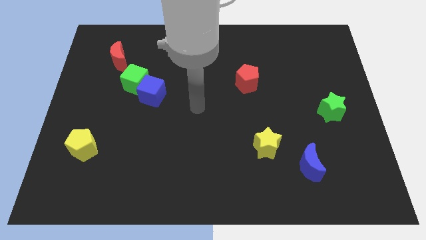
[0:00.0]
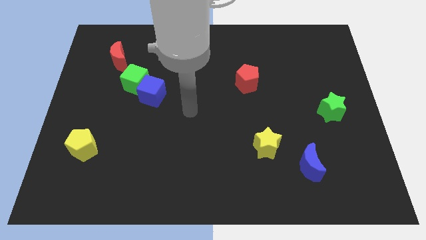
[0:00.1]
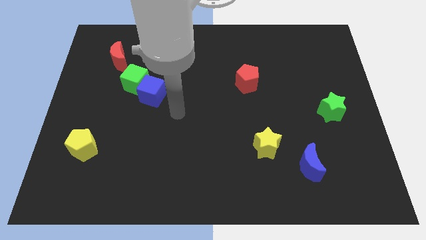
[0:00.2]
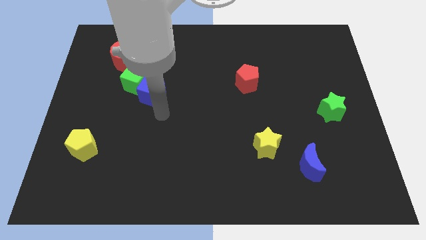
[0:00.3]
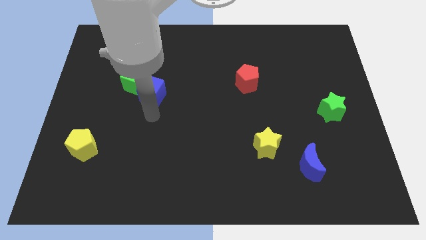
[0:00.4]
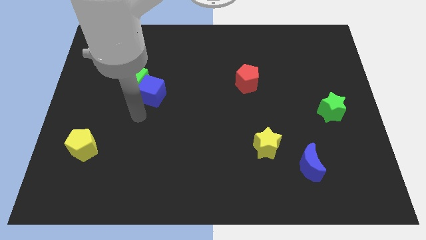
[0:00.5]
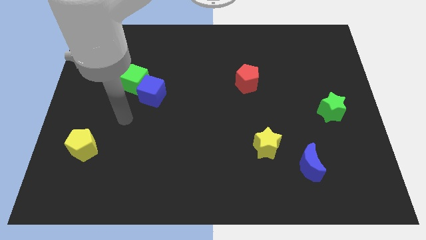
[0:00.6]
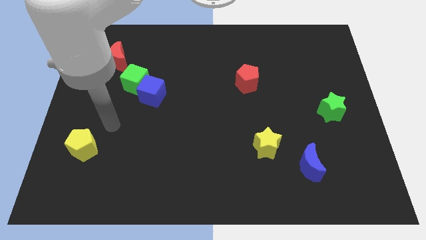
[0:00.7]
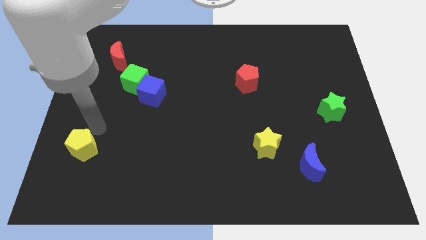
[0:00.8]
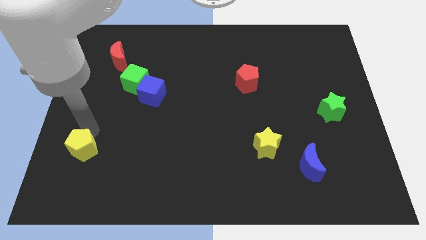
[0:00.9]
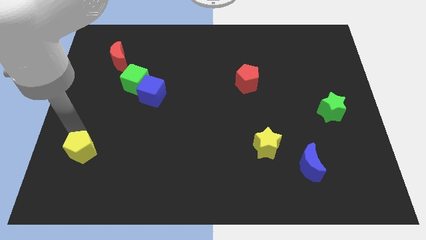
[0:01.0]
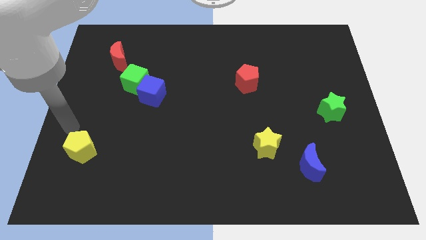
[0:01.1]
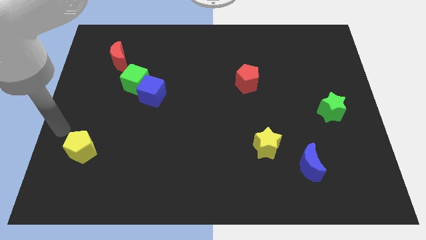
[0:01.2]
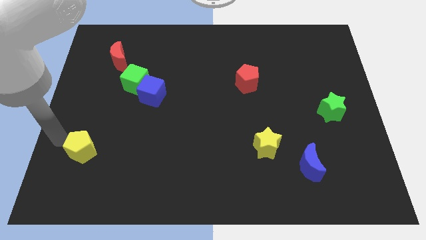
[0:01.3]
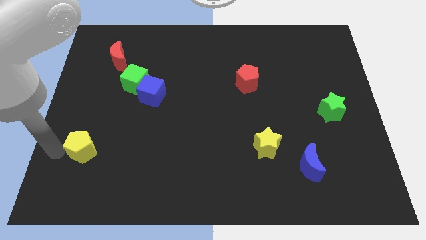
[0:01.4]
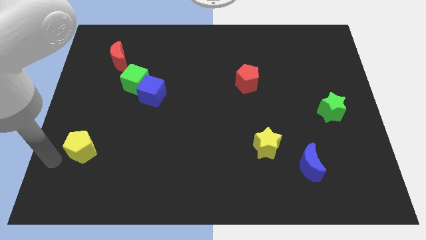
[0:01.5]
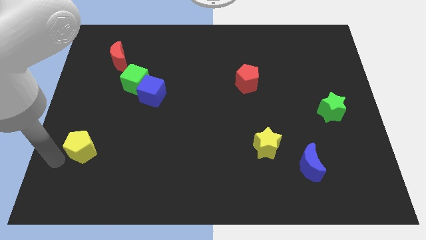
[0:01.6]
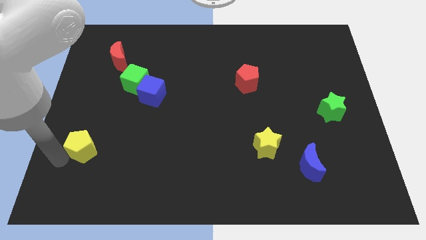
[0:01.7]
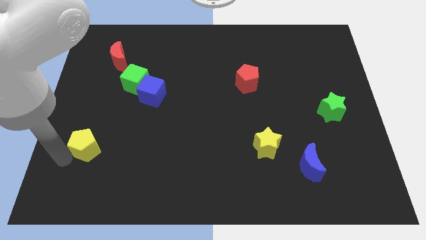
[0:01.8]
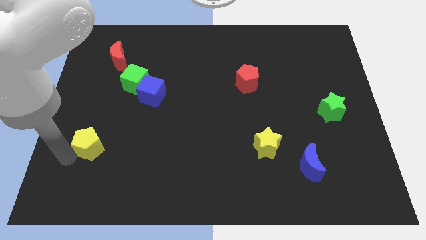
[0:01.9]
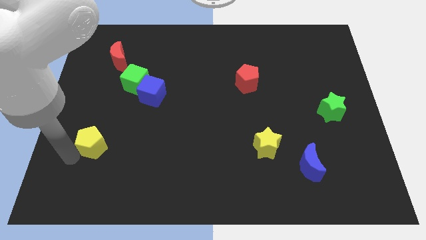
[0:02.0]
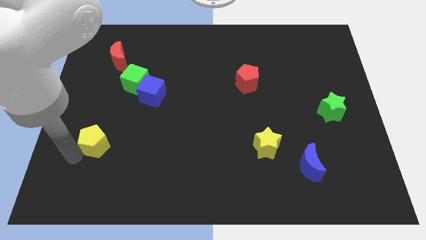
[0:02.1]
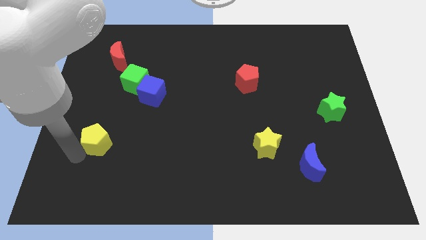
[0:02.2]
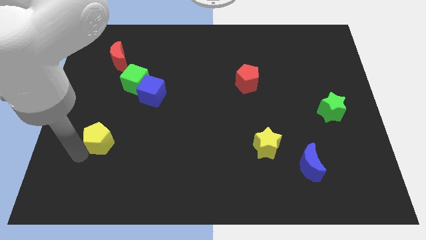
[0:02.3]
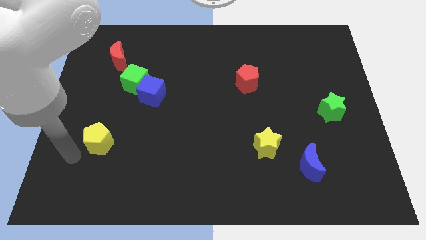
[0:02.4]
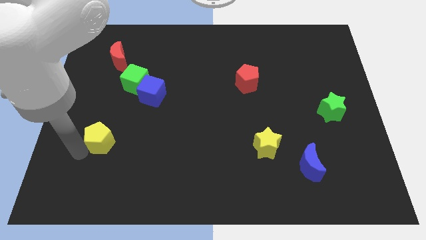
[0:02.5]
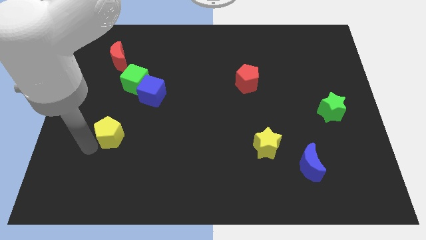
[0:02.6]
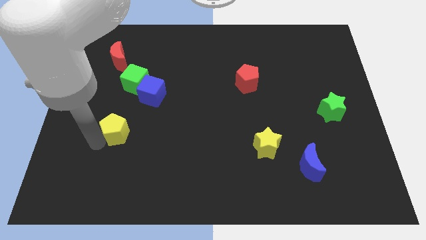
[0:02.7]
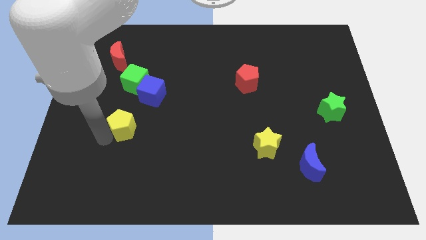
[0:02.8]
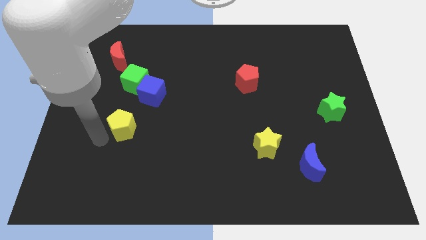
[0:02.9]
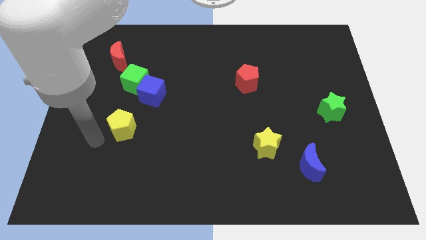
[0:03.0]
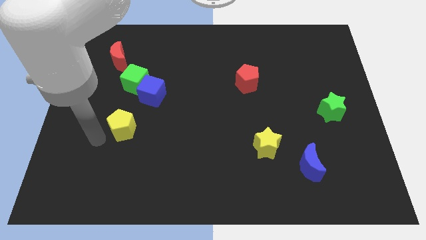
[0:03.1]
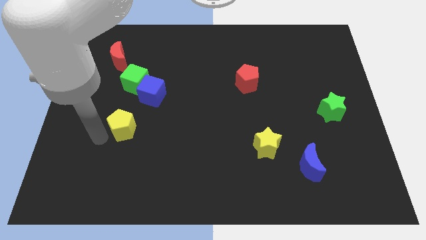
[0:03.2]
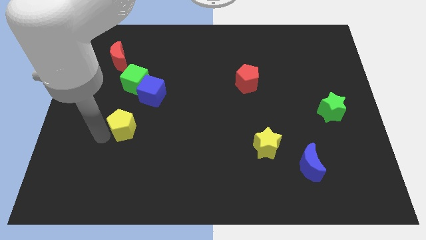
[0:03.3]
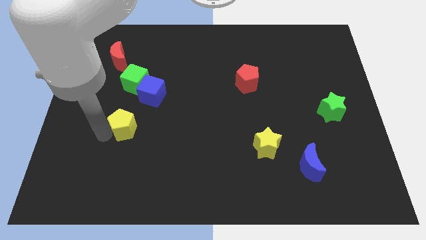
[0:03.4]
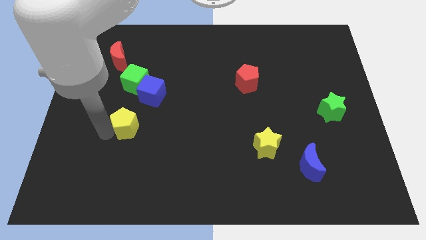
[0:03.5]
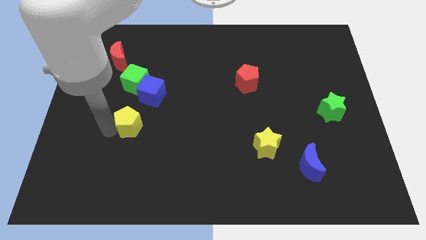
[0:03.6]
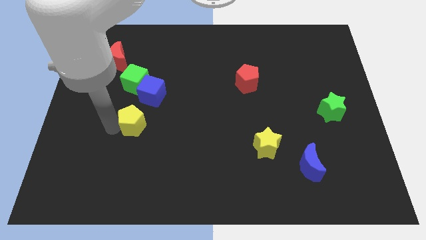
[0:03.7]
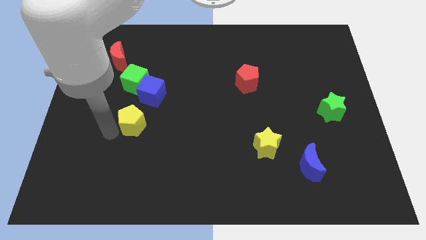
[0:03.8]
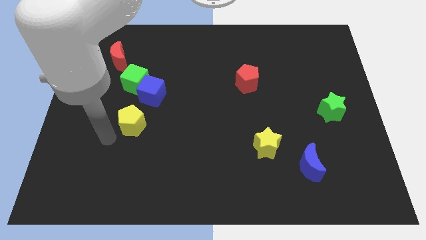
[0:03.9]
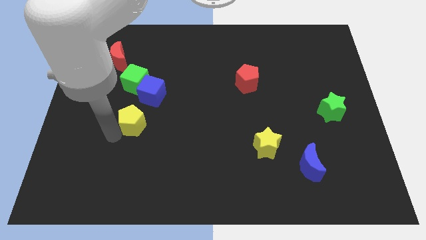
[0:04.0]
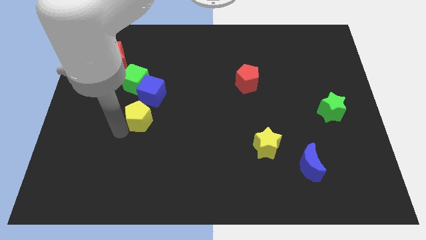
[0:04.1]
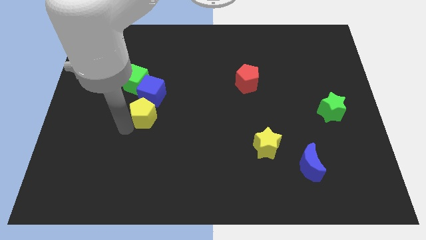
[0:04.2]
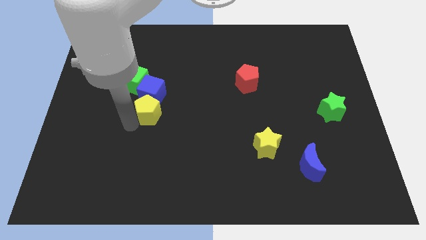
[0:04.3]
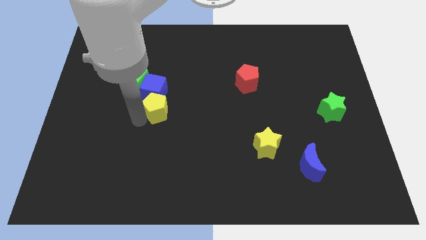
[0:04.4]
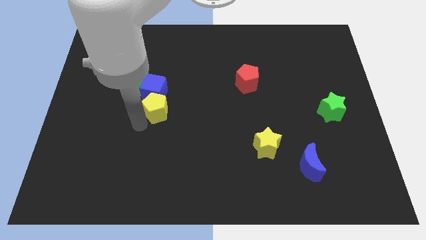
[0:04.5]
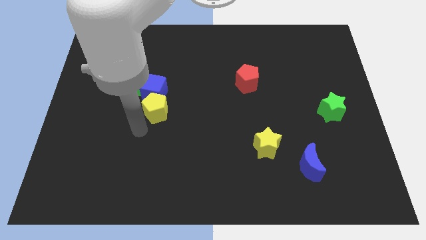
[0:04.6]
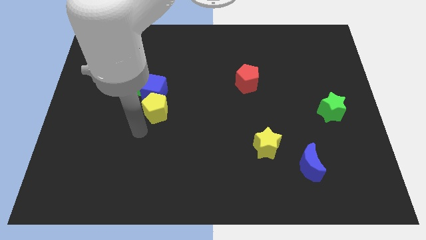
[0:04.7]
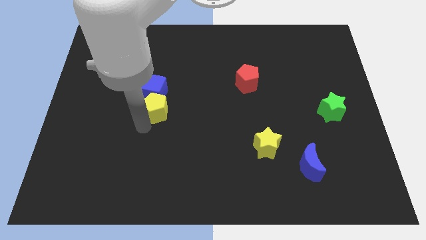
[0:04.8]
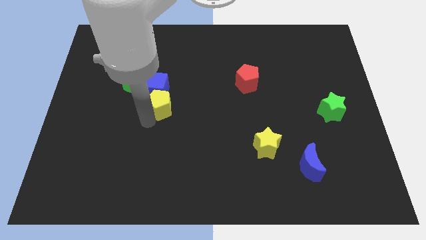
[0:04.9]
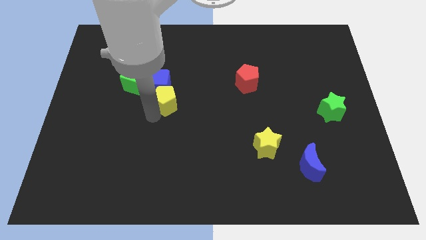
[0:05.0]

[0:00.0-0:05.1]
slide the yellow pentagon diagonally up and right

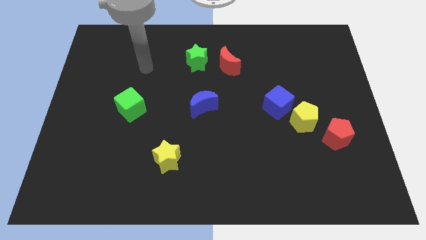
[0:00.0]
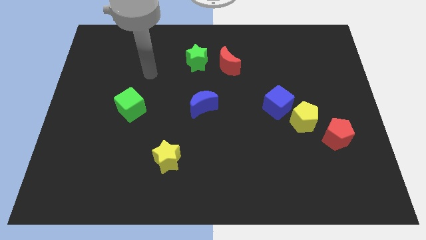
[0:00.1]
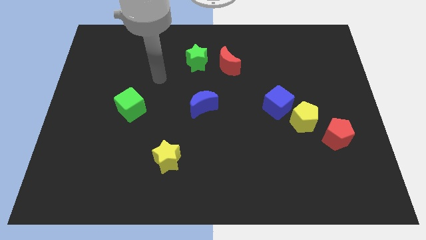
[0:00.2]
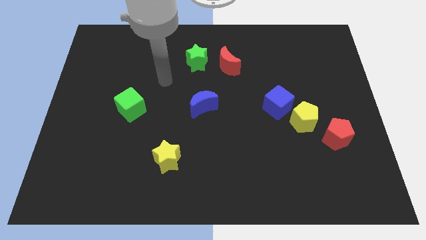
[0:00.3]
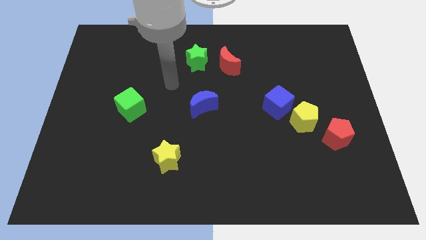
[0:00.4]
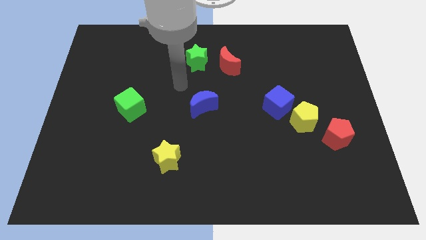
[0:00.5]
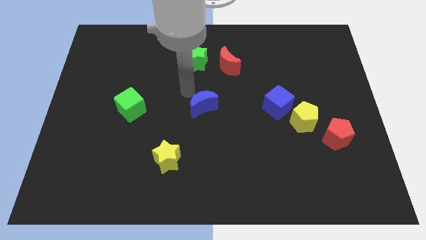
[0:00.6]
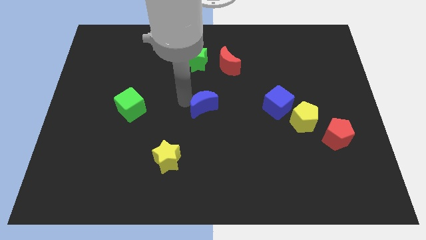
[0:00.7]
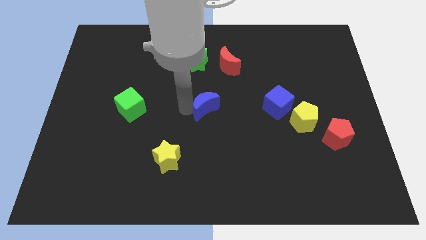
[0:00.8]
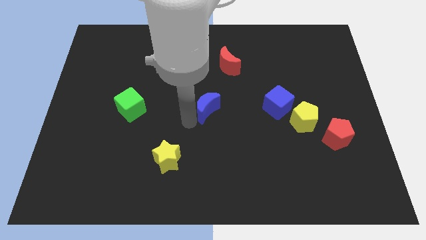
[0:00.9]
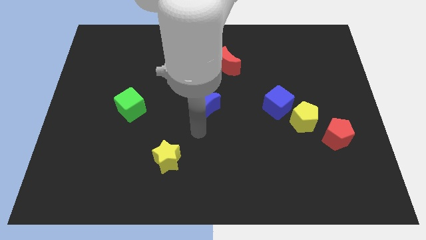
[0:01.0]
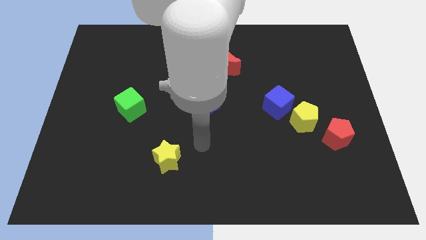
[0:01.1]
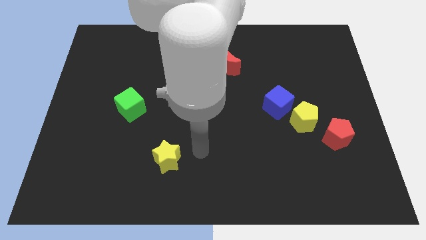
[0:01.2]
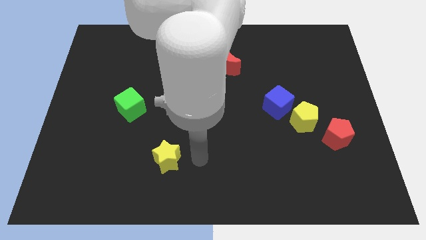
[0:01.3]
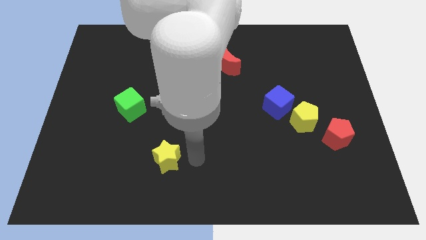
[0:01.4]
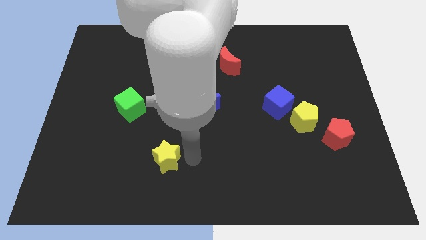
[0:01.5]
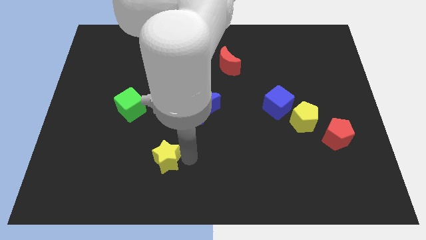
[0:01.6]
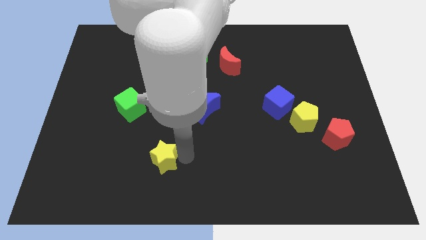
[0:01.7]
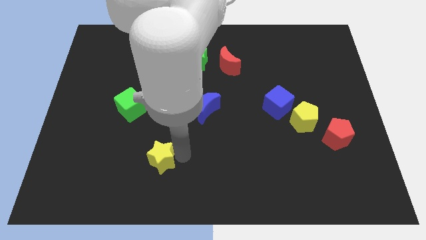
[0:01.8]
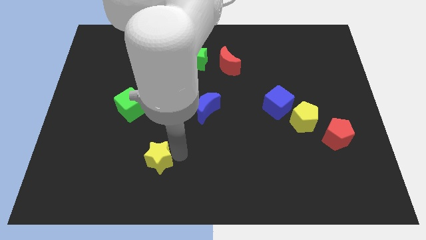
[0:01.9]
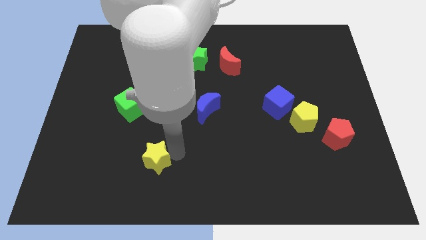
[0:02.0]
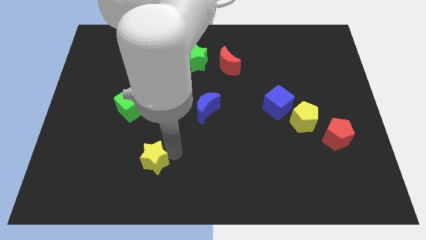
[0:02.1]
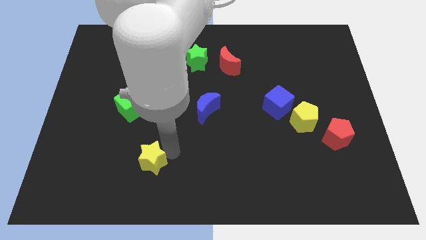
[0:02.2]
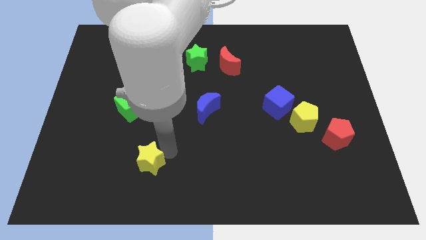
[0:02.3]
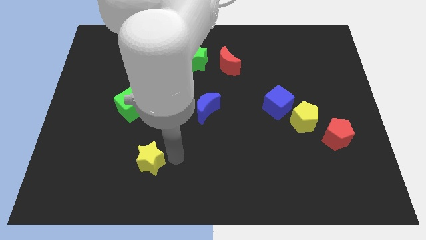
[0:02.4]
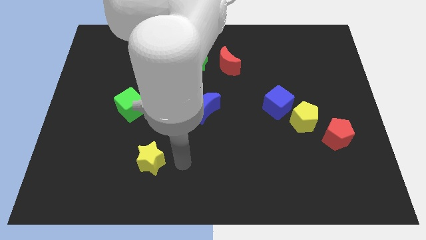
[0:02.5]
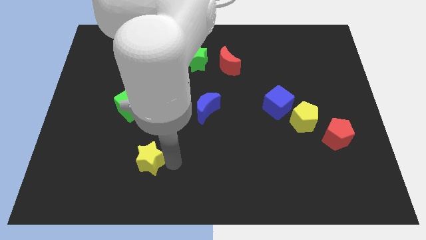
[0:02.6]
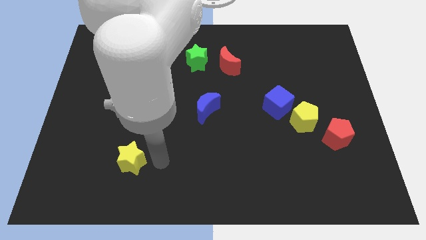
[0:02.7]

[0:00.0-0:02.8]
move the yellow star somewhat left
